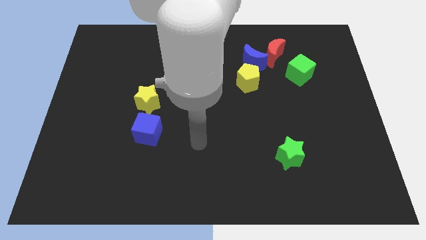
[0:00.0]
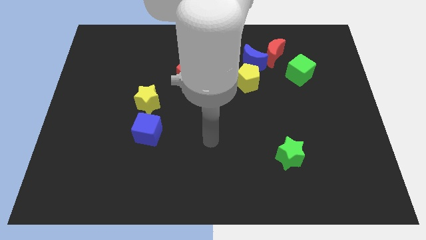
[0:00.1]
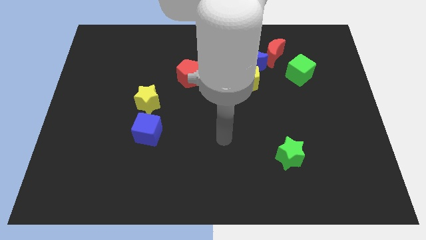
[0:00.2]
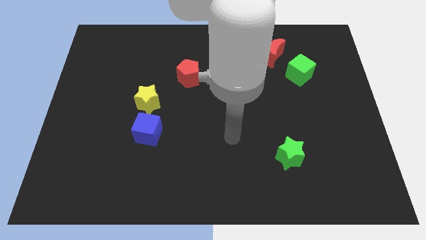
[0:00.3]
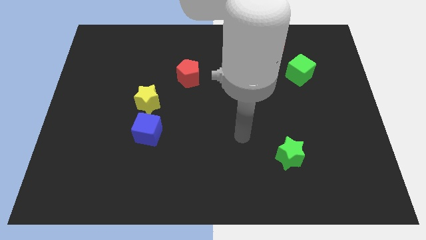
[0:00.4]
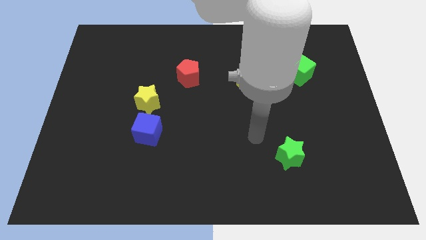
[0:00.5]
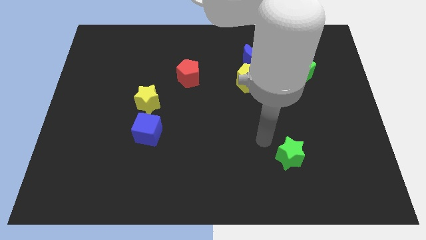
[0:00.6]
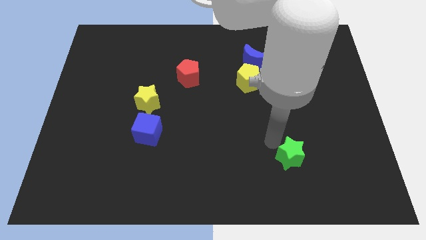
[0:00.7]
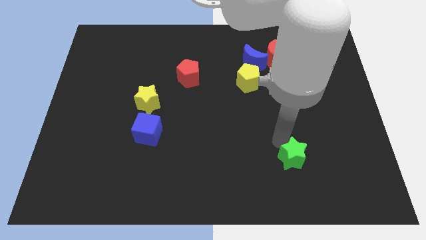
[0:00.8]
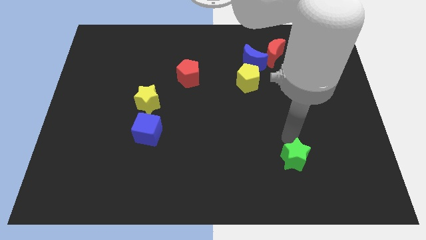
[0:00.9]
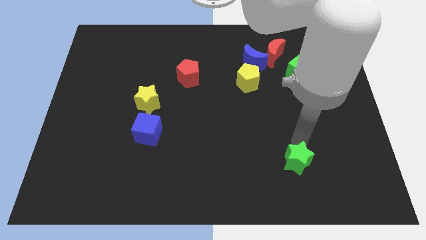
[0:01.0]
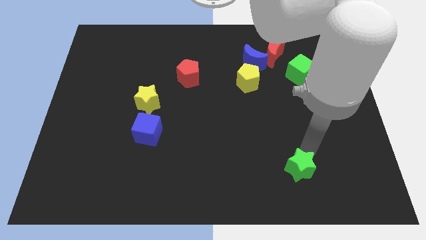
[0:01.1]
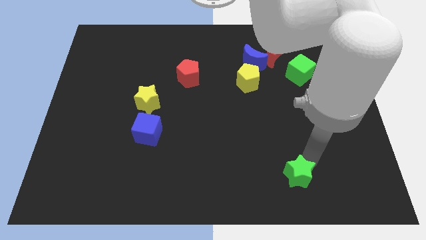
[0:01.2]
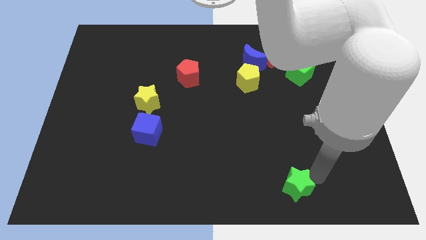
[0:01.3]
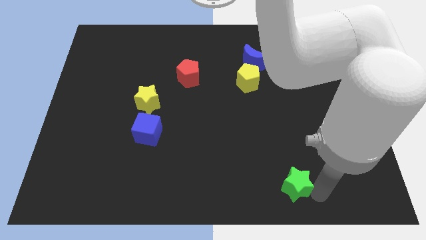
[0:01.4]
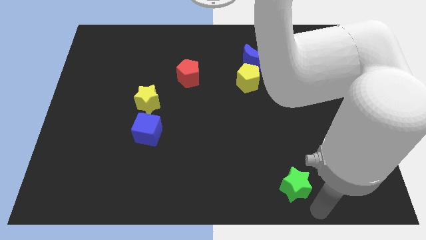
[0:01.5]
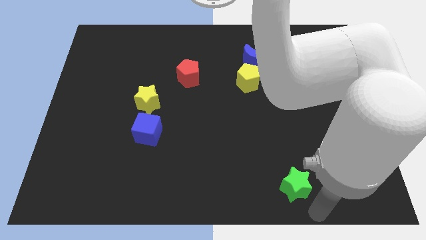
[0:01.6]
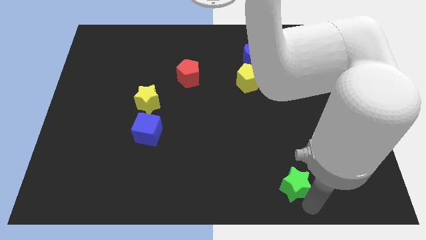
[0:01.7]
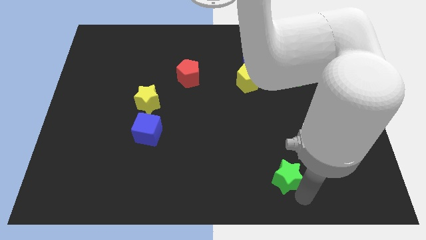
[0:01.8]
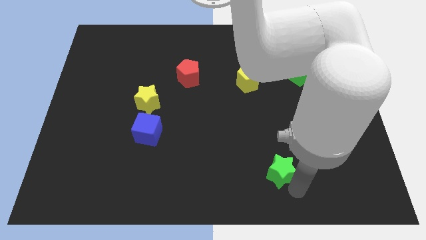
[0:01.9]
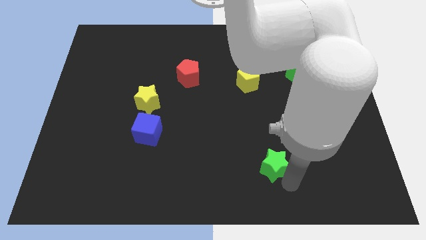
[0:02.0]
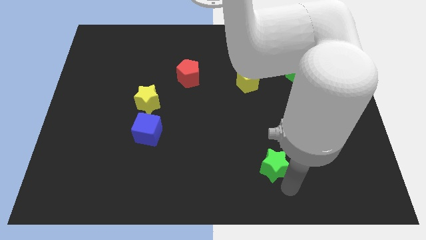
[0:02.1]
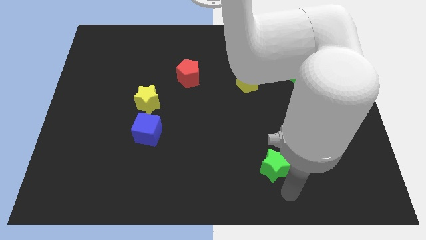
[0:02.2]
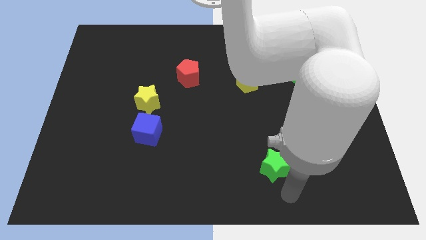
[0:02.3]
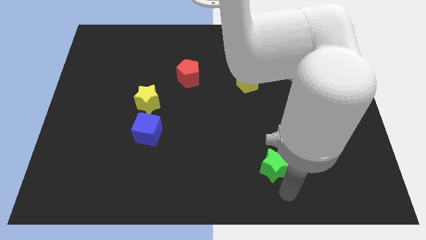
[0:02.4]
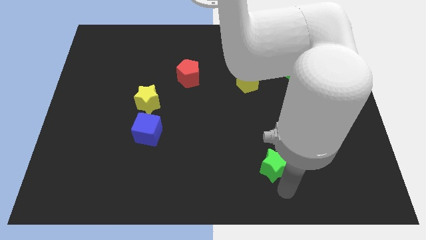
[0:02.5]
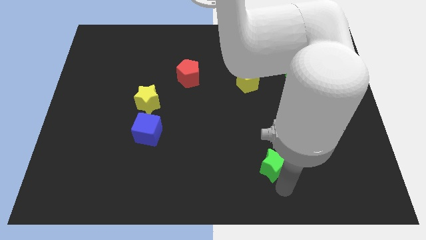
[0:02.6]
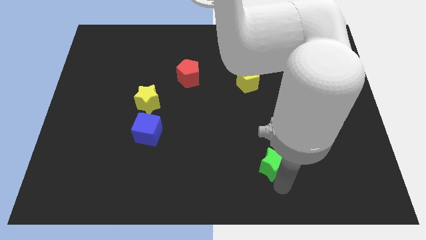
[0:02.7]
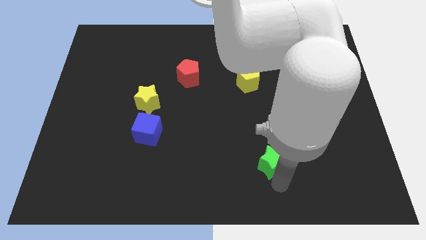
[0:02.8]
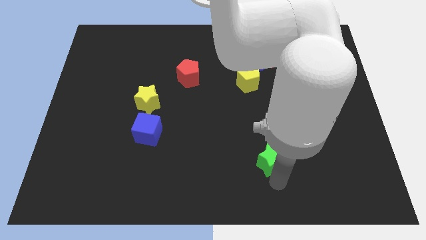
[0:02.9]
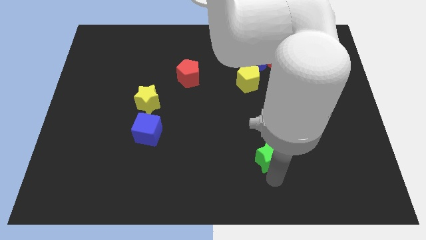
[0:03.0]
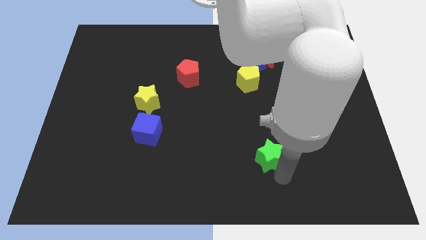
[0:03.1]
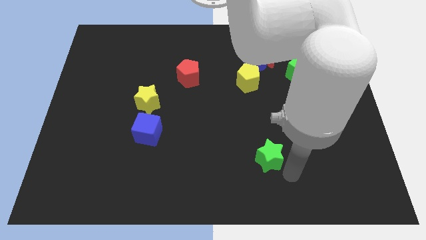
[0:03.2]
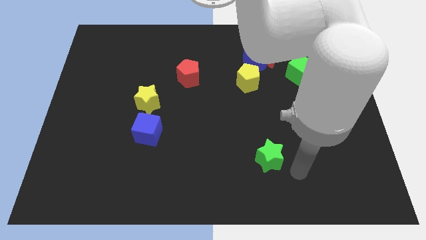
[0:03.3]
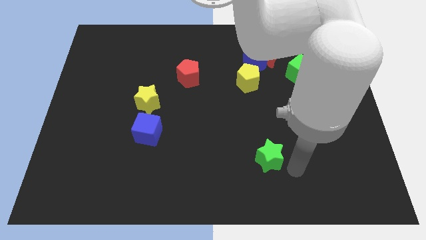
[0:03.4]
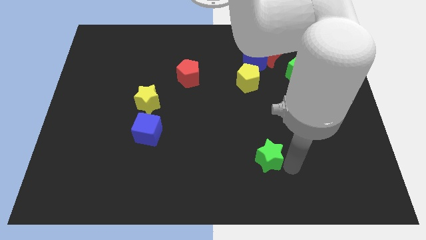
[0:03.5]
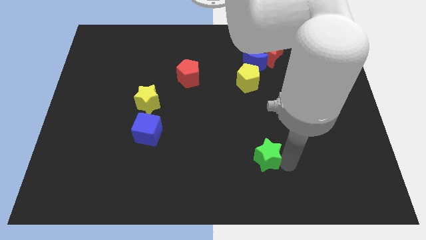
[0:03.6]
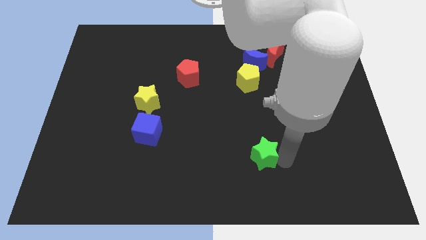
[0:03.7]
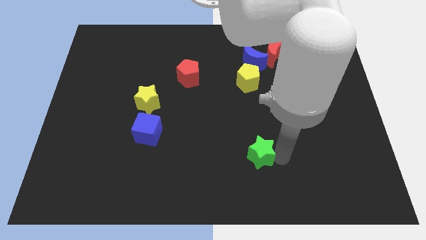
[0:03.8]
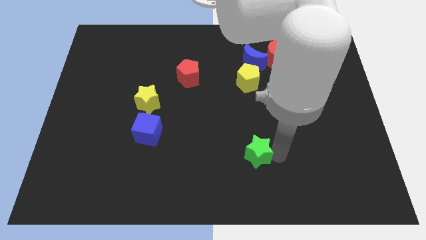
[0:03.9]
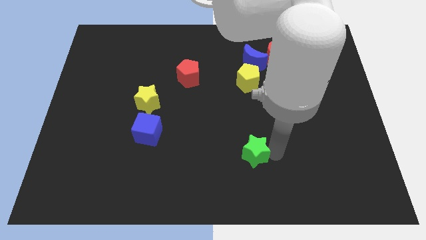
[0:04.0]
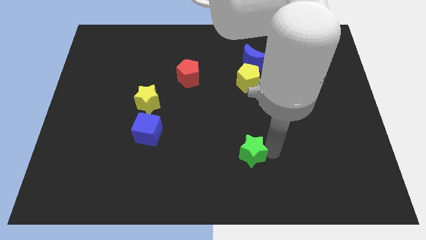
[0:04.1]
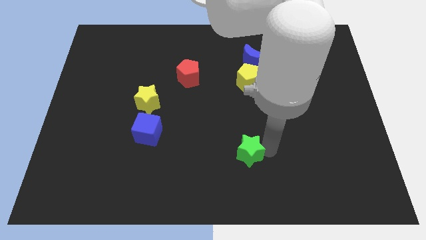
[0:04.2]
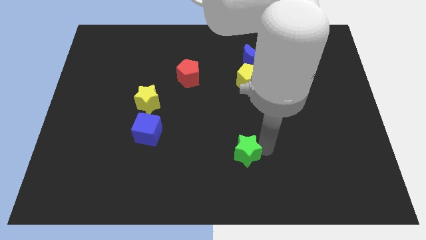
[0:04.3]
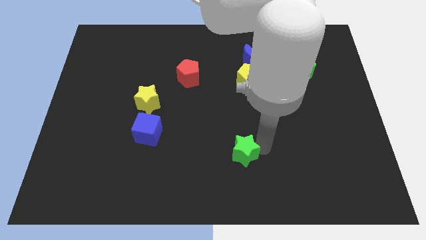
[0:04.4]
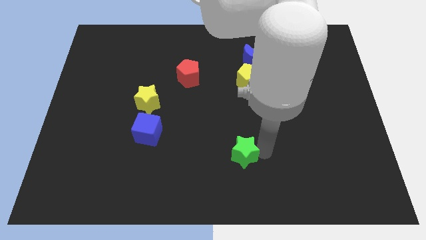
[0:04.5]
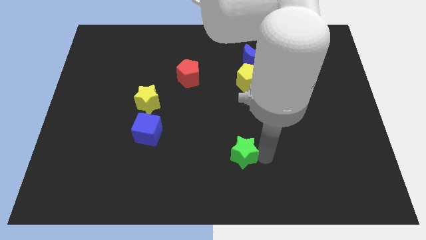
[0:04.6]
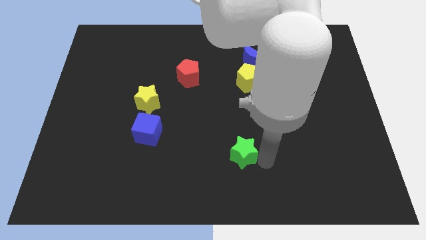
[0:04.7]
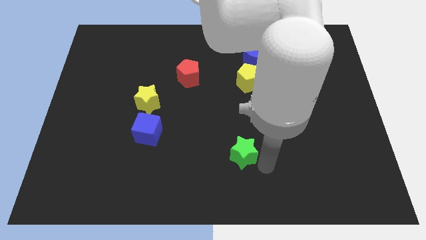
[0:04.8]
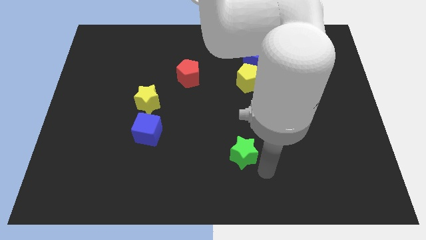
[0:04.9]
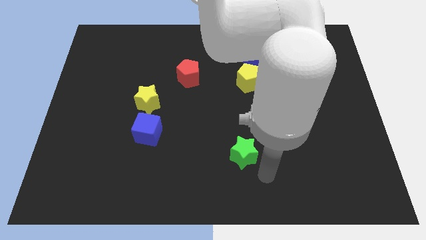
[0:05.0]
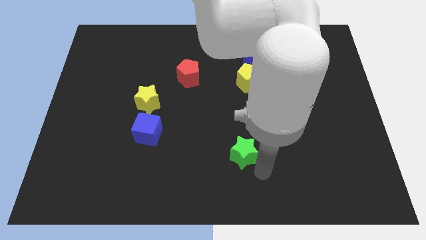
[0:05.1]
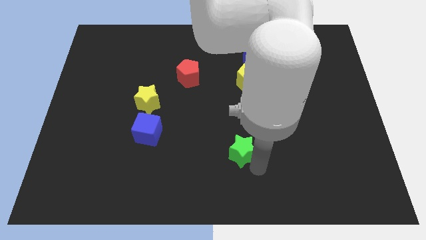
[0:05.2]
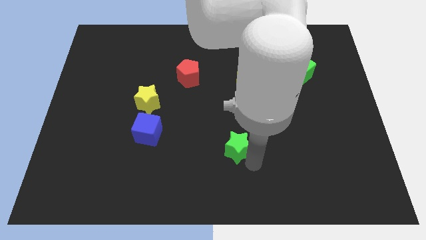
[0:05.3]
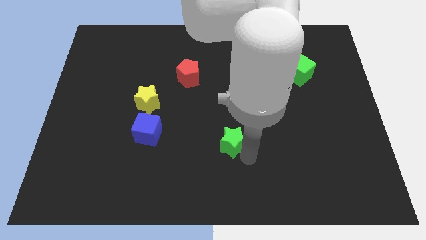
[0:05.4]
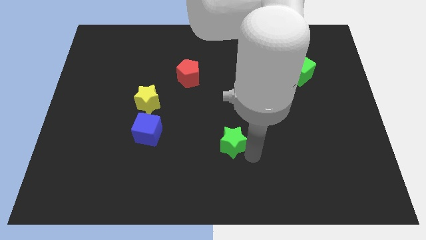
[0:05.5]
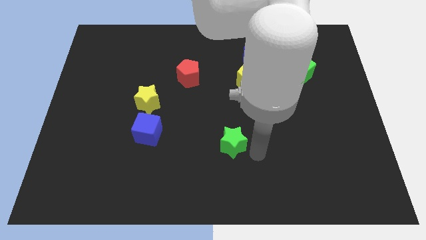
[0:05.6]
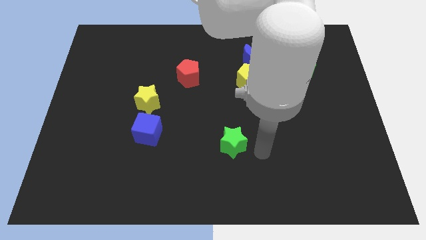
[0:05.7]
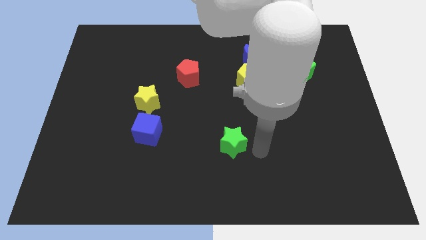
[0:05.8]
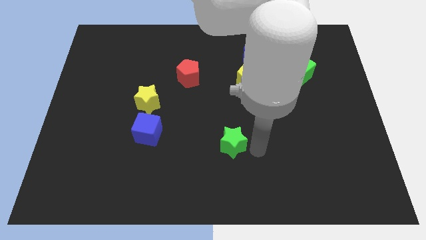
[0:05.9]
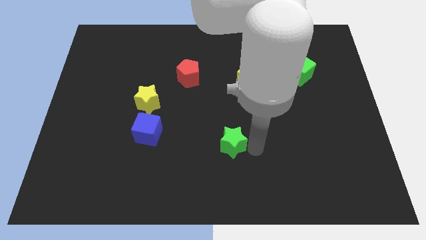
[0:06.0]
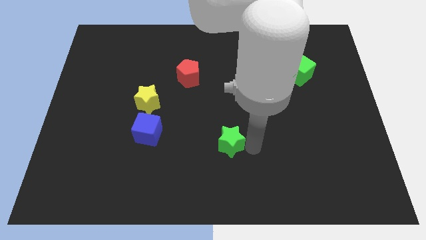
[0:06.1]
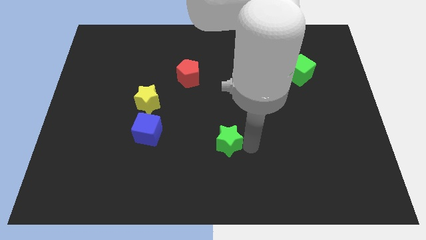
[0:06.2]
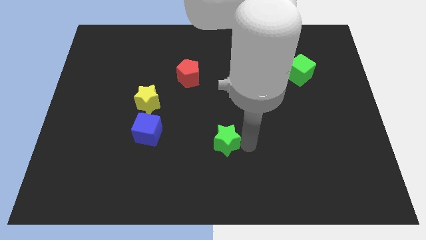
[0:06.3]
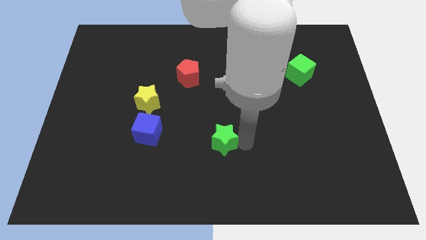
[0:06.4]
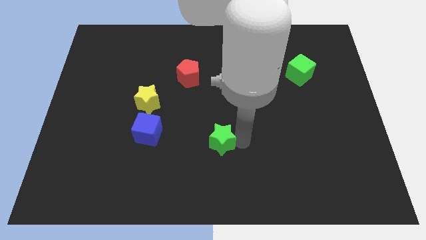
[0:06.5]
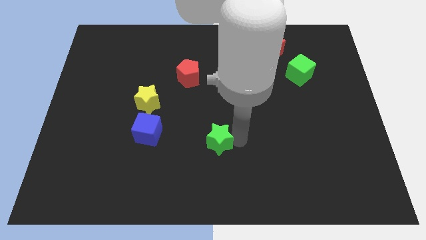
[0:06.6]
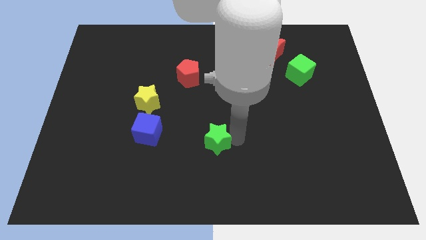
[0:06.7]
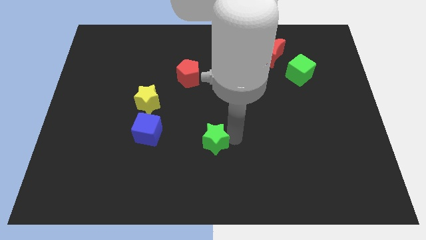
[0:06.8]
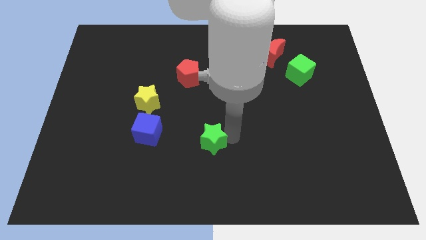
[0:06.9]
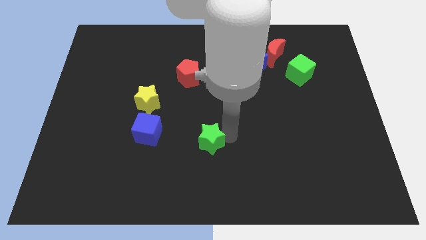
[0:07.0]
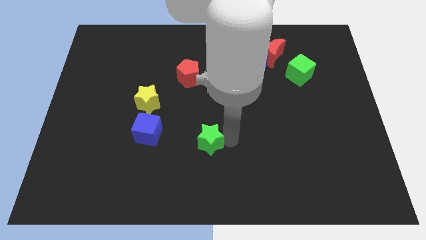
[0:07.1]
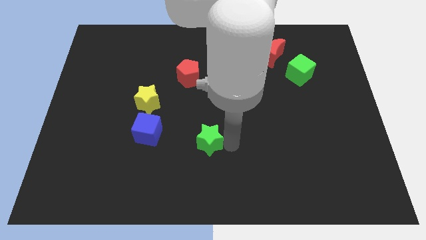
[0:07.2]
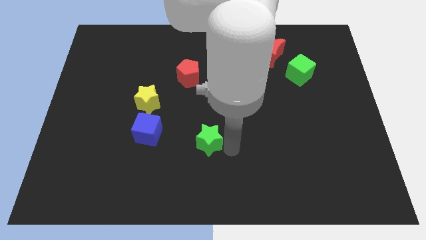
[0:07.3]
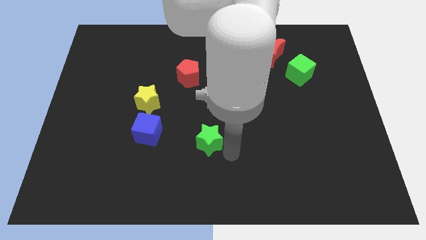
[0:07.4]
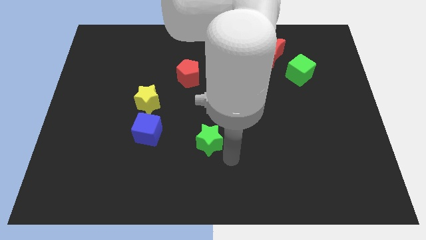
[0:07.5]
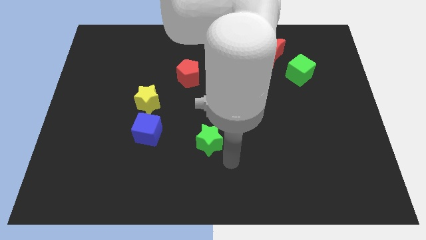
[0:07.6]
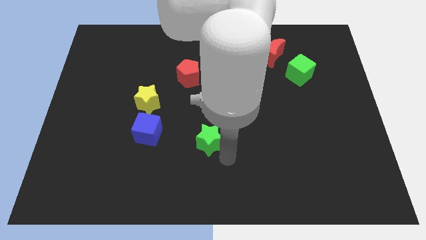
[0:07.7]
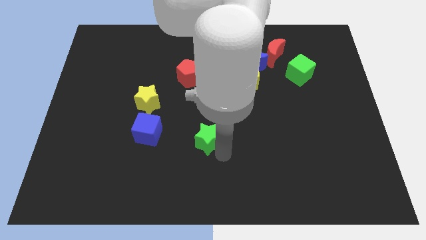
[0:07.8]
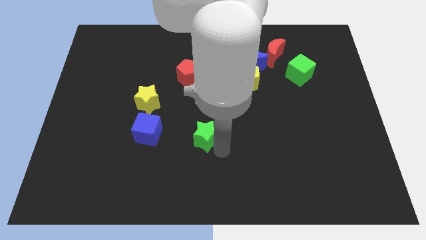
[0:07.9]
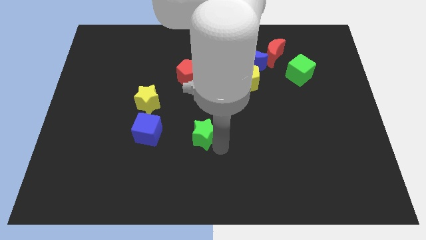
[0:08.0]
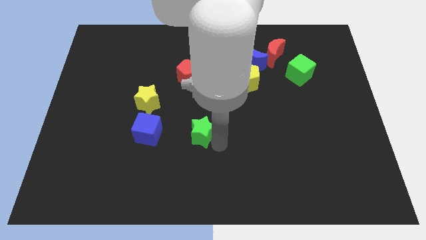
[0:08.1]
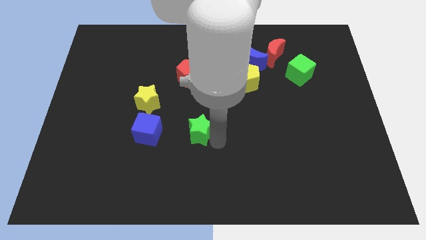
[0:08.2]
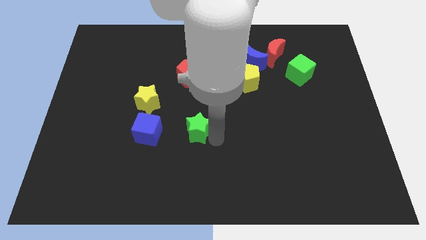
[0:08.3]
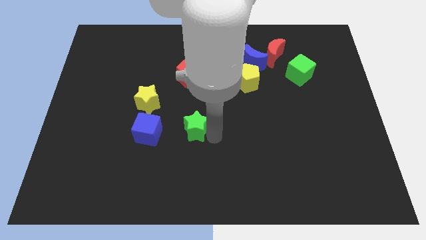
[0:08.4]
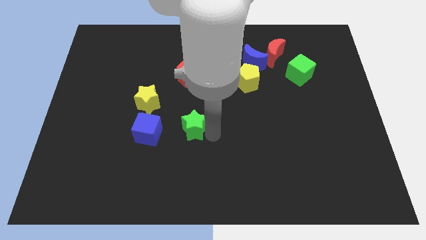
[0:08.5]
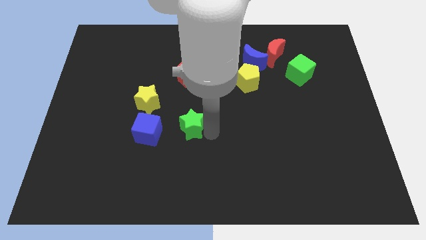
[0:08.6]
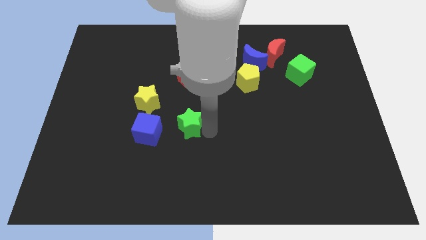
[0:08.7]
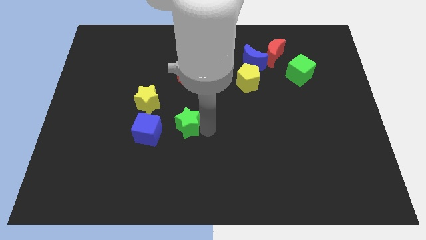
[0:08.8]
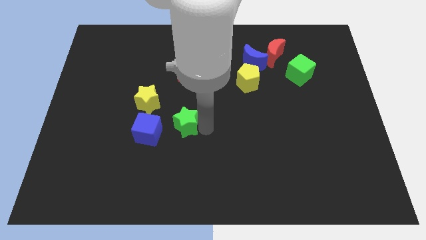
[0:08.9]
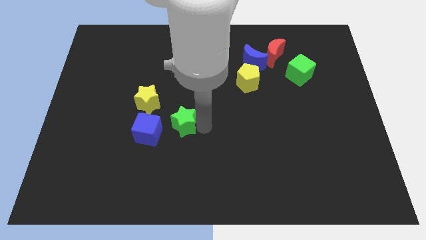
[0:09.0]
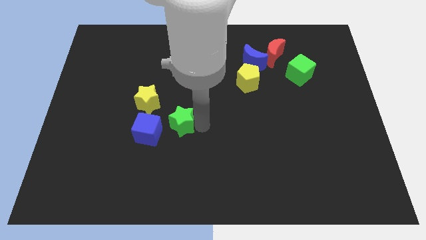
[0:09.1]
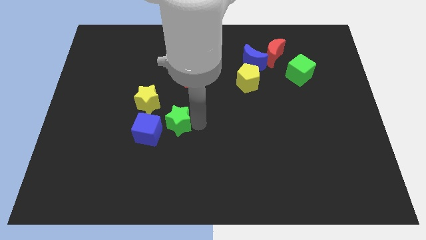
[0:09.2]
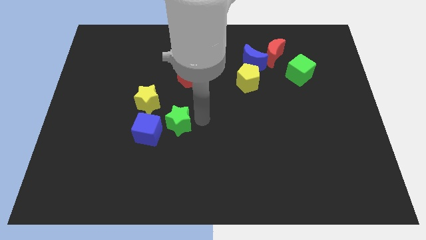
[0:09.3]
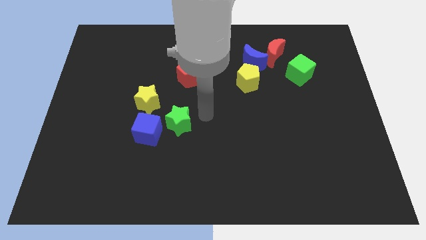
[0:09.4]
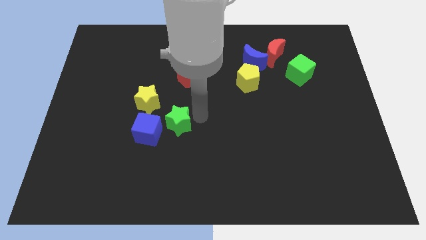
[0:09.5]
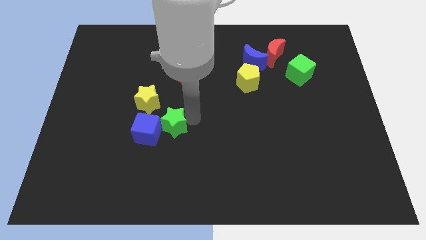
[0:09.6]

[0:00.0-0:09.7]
slide the green star to the blue cube
